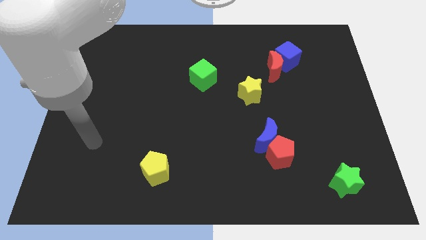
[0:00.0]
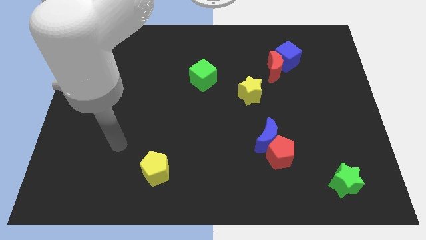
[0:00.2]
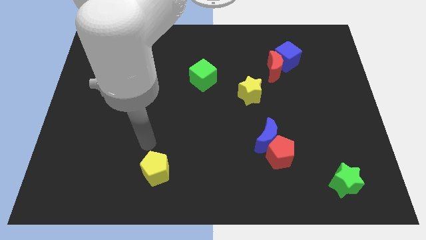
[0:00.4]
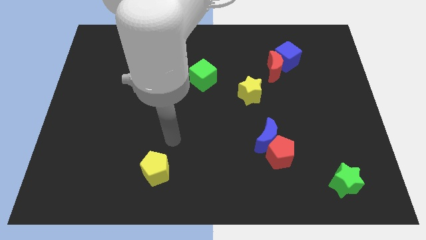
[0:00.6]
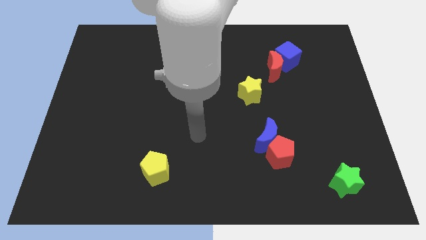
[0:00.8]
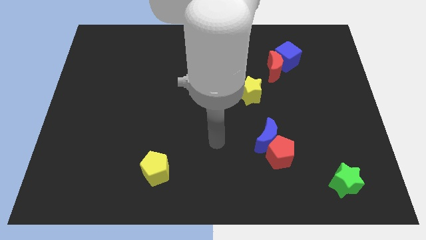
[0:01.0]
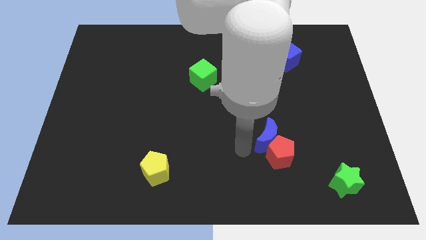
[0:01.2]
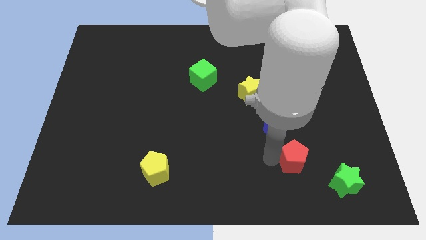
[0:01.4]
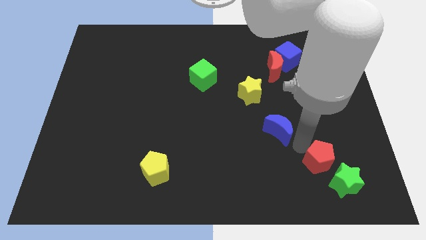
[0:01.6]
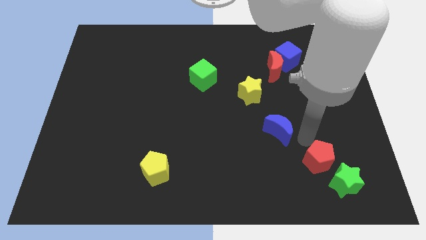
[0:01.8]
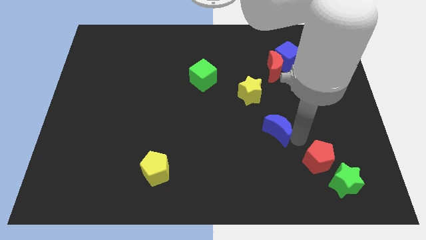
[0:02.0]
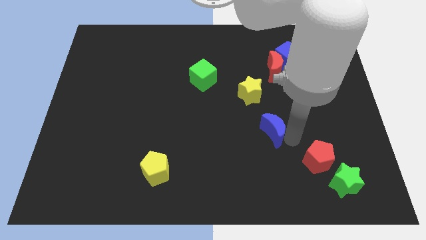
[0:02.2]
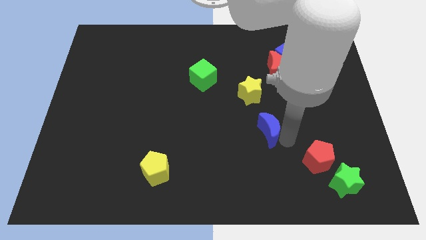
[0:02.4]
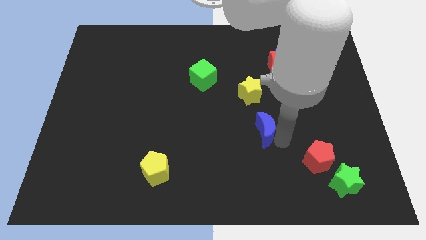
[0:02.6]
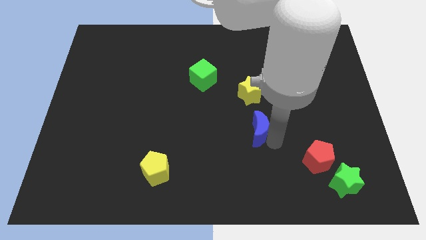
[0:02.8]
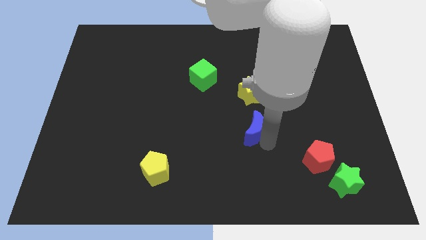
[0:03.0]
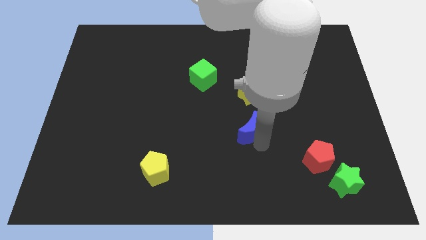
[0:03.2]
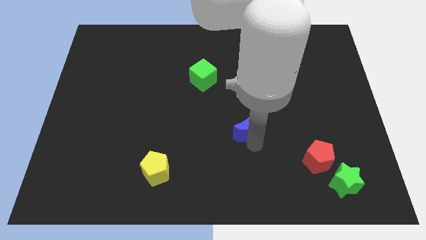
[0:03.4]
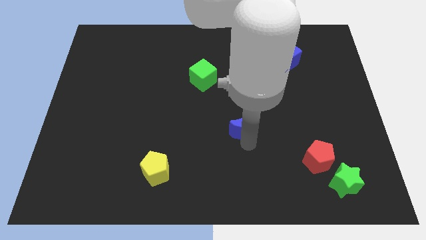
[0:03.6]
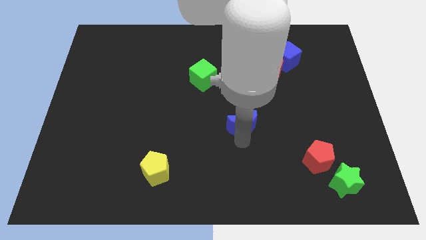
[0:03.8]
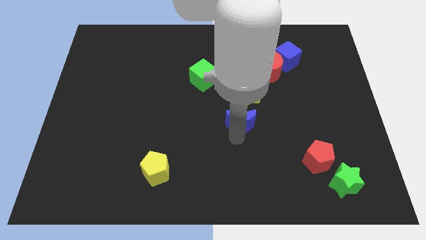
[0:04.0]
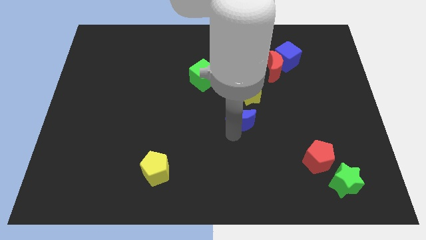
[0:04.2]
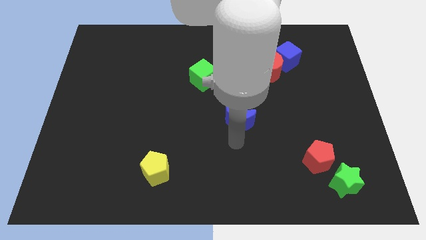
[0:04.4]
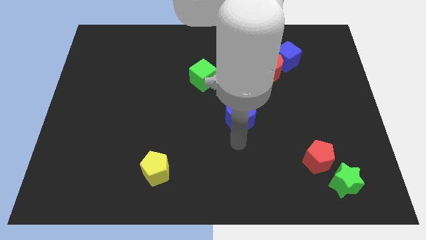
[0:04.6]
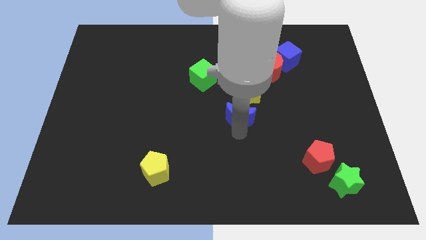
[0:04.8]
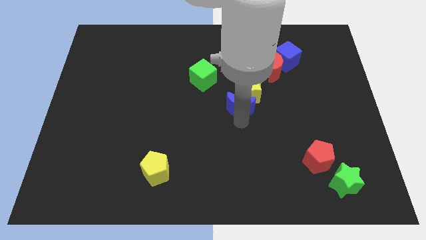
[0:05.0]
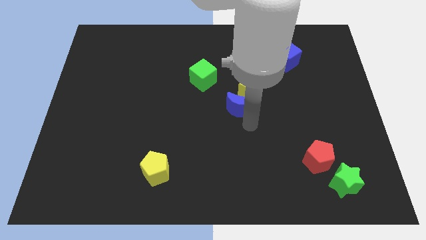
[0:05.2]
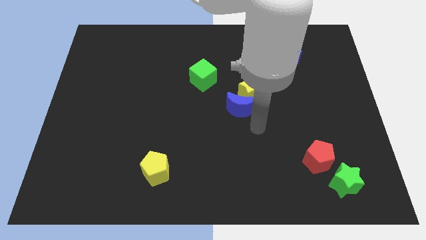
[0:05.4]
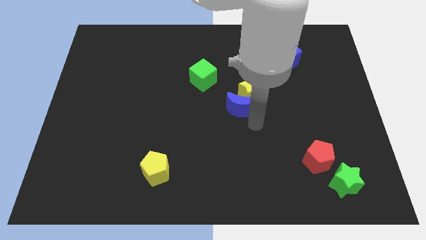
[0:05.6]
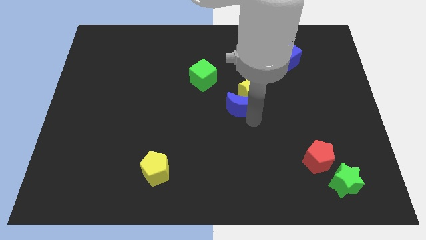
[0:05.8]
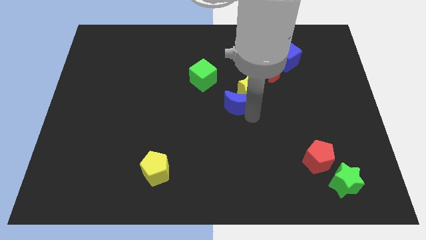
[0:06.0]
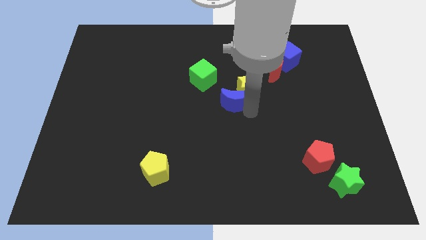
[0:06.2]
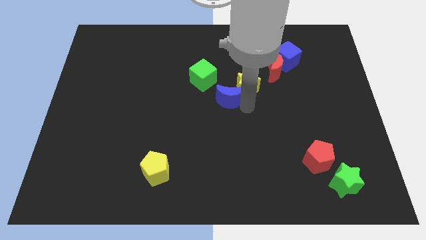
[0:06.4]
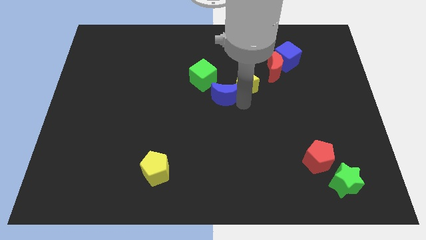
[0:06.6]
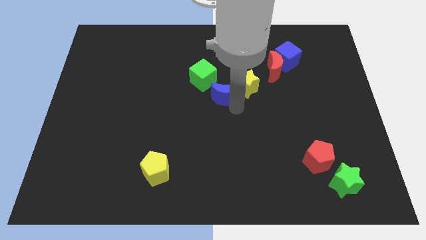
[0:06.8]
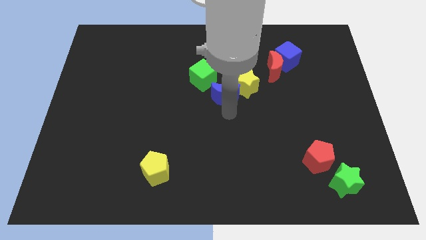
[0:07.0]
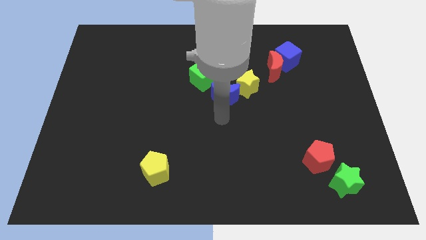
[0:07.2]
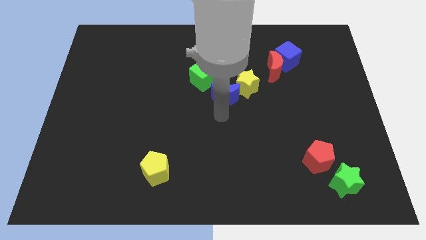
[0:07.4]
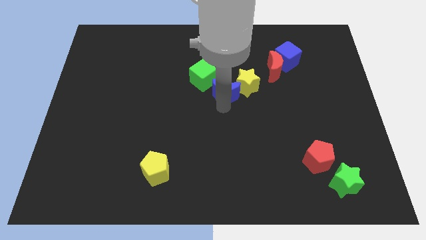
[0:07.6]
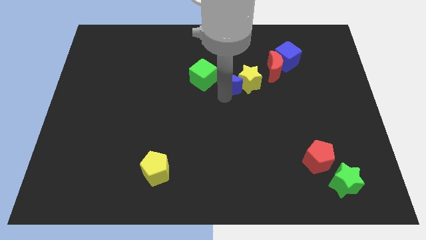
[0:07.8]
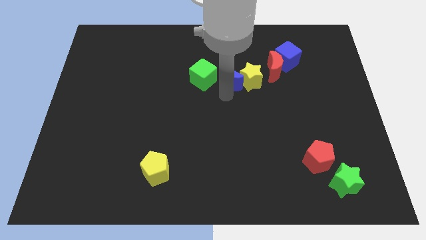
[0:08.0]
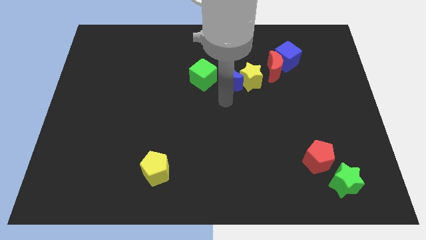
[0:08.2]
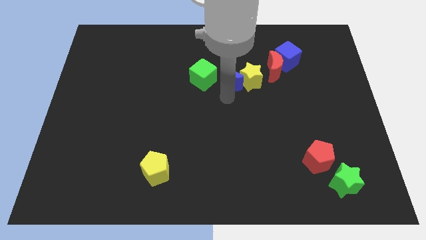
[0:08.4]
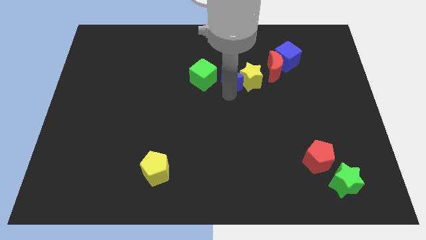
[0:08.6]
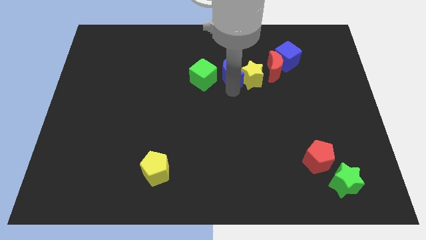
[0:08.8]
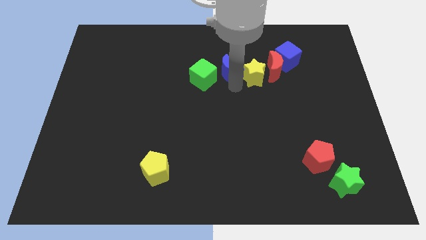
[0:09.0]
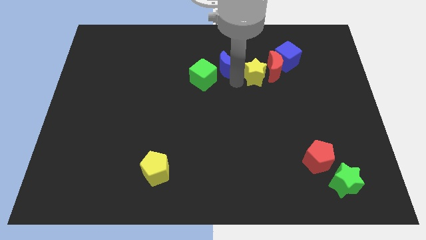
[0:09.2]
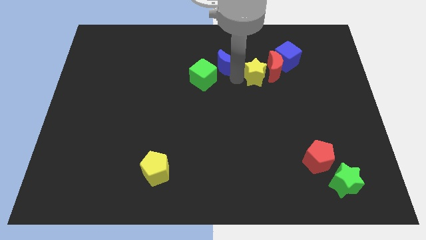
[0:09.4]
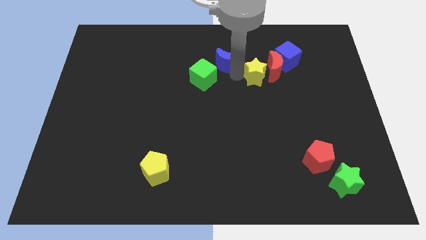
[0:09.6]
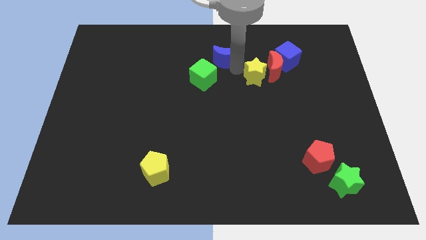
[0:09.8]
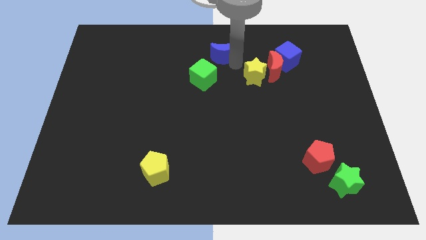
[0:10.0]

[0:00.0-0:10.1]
put the blue moon to the top side

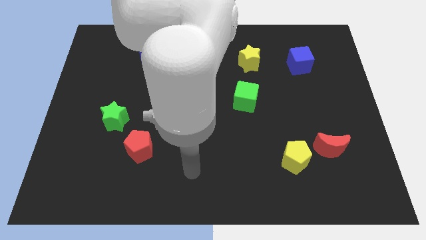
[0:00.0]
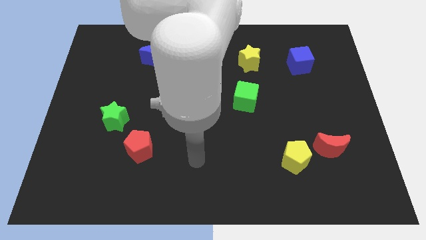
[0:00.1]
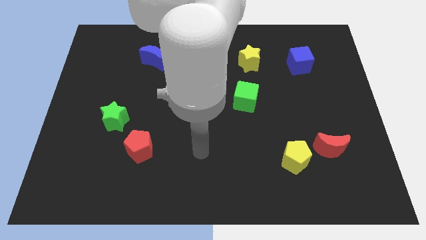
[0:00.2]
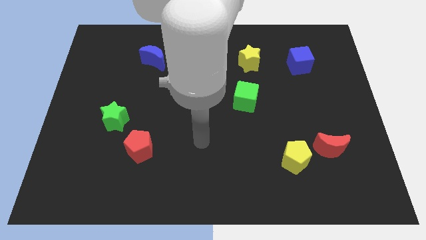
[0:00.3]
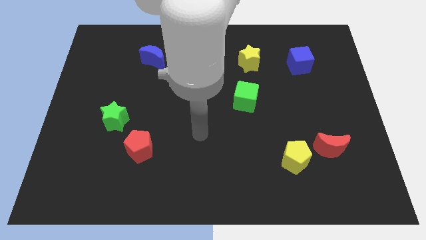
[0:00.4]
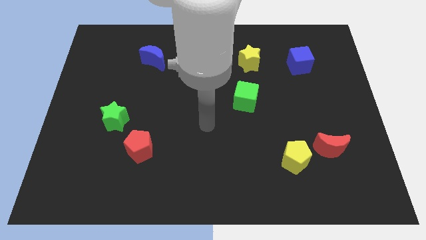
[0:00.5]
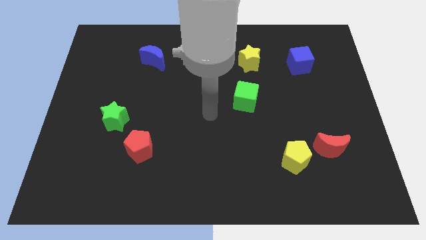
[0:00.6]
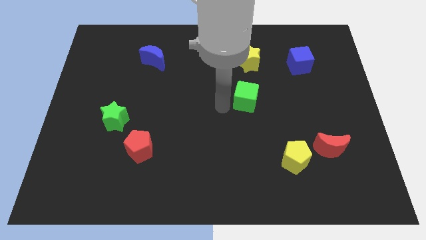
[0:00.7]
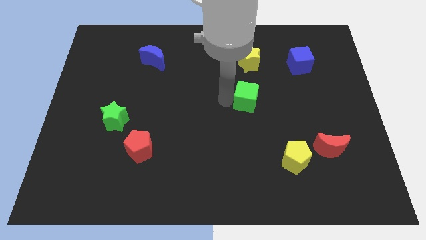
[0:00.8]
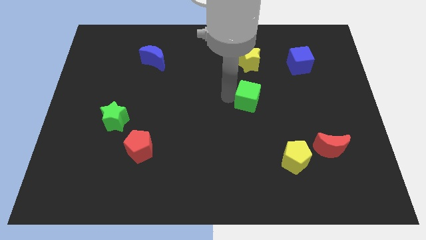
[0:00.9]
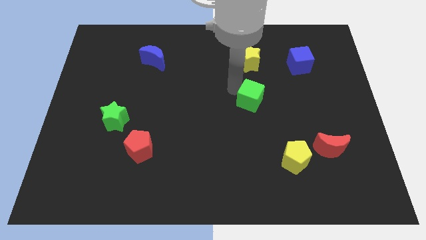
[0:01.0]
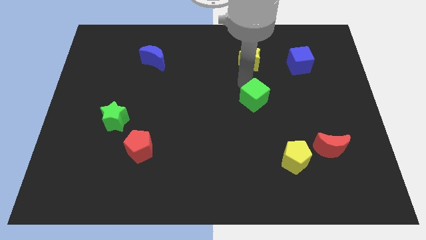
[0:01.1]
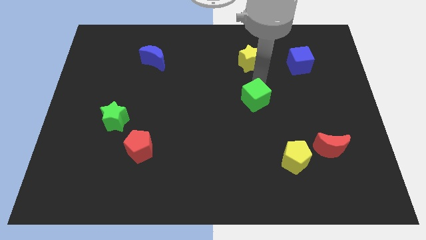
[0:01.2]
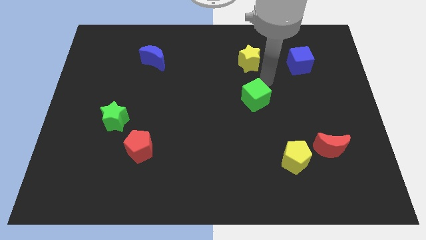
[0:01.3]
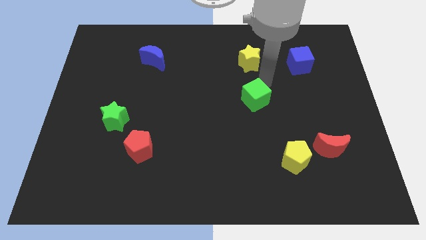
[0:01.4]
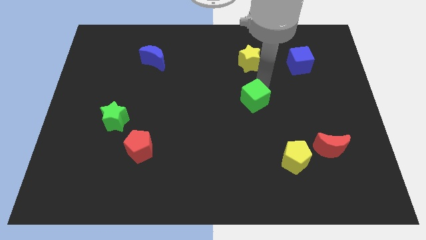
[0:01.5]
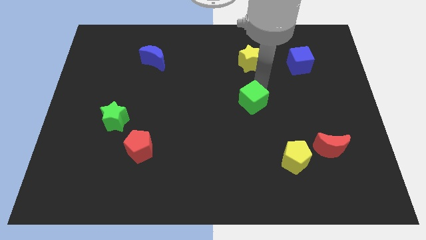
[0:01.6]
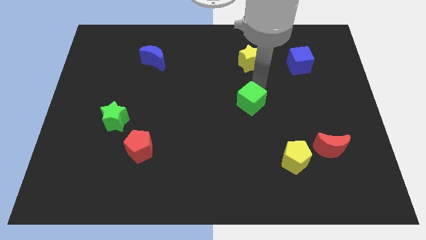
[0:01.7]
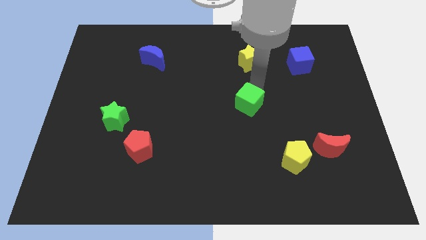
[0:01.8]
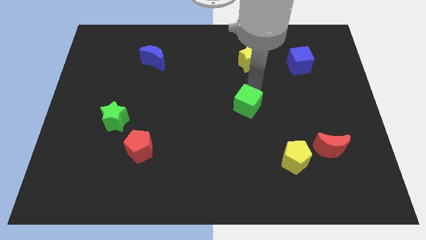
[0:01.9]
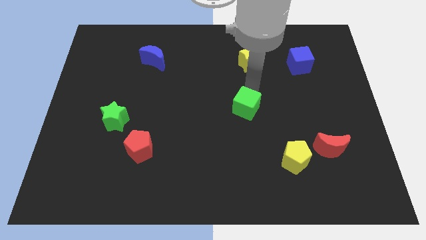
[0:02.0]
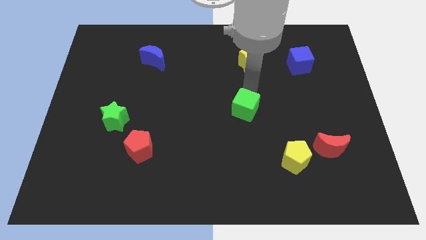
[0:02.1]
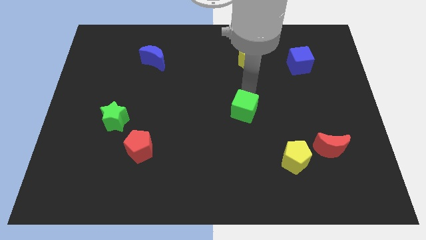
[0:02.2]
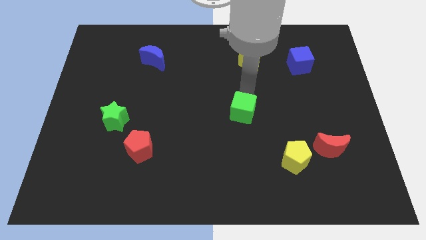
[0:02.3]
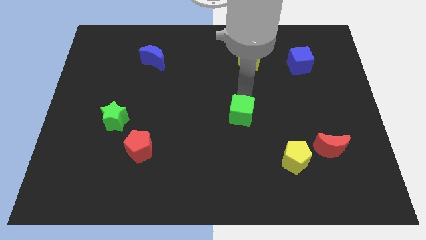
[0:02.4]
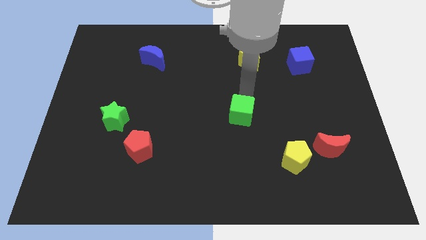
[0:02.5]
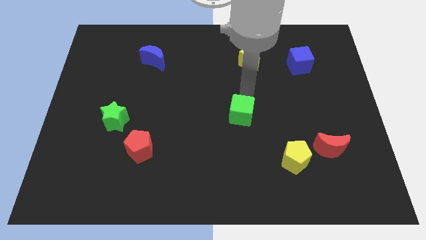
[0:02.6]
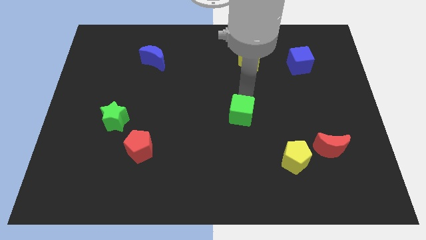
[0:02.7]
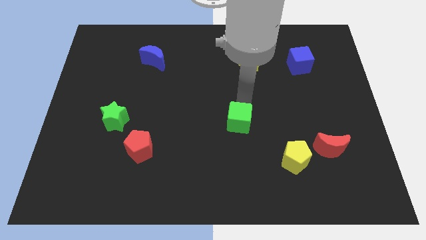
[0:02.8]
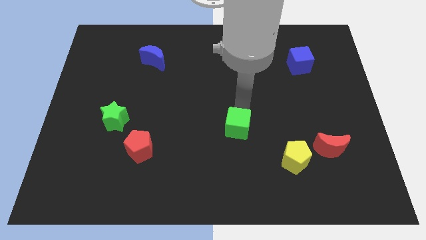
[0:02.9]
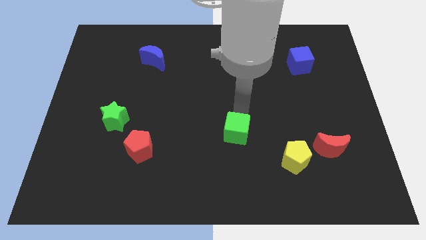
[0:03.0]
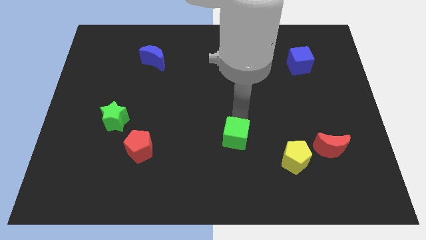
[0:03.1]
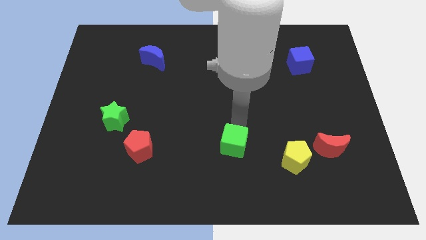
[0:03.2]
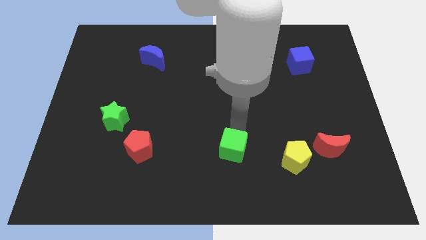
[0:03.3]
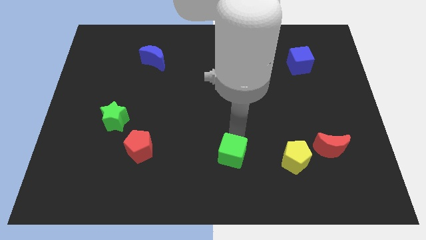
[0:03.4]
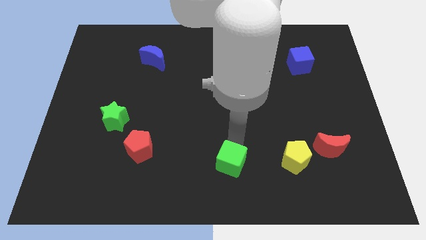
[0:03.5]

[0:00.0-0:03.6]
push the green cube to the bottom side
